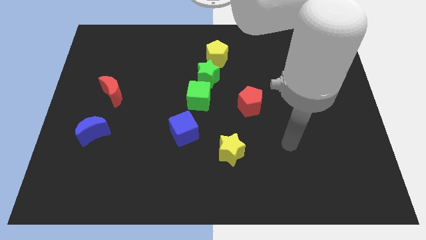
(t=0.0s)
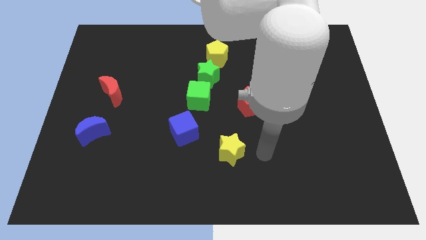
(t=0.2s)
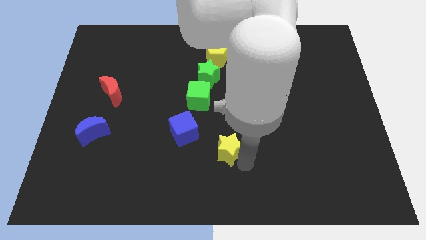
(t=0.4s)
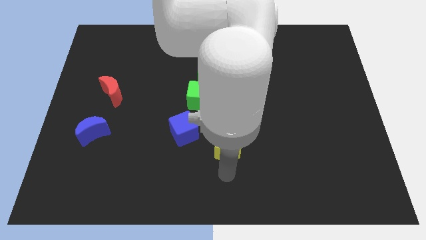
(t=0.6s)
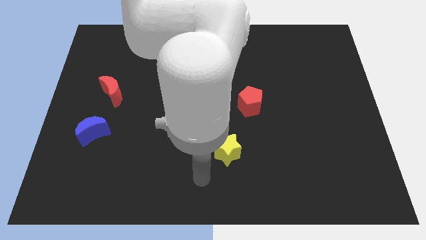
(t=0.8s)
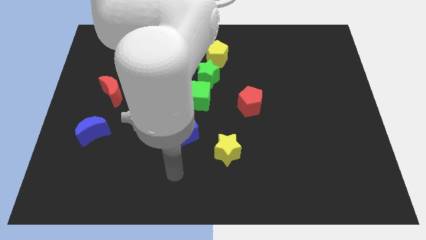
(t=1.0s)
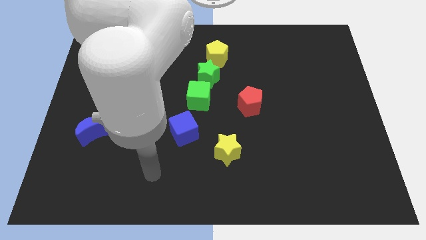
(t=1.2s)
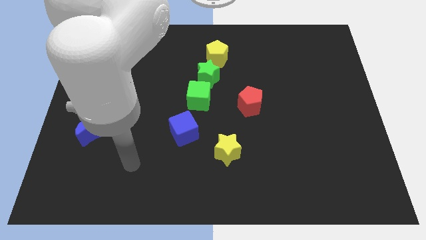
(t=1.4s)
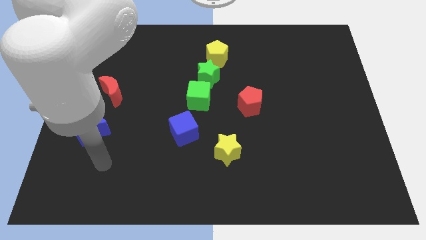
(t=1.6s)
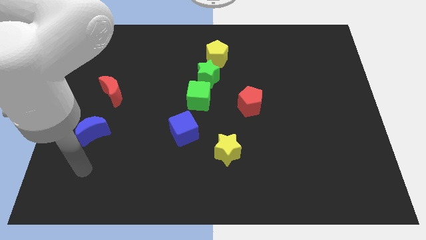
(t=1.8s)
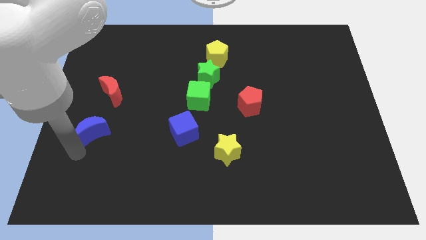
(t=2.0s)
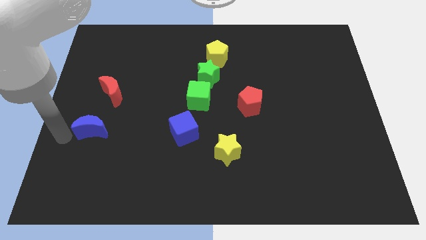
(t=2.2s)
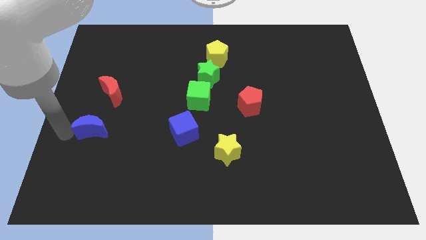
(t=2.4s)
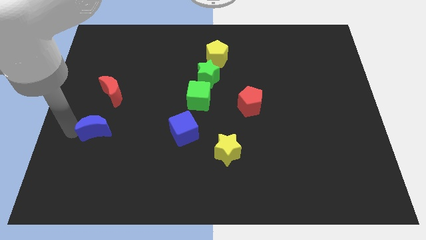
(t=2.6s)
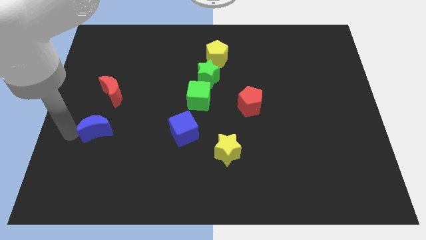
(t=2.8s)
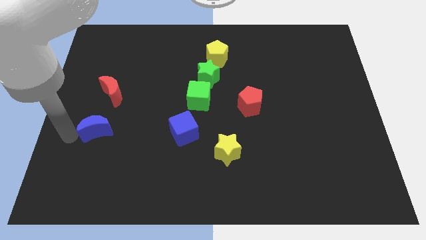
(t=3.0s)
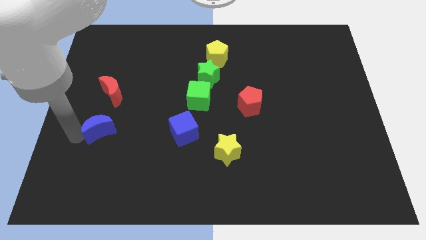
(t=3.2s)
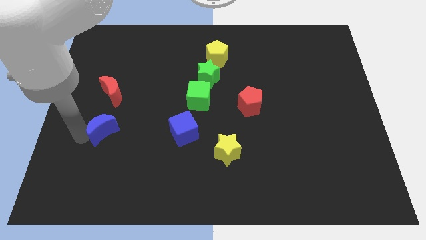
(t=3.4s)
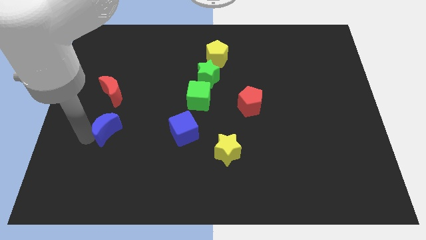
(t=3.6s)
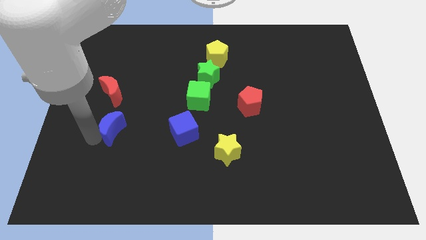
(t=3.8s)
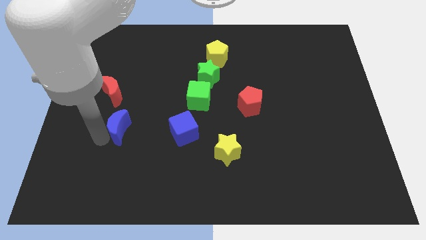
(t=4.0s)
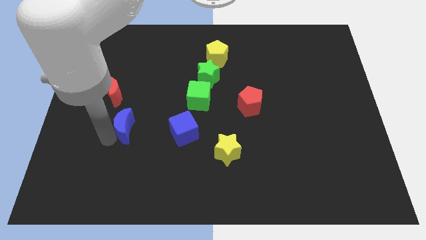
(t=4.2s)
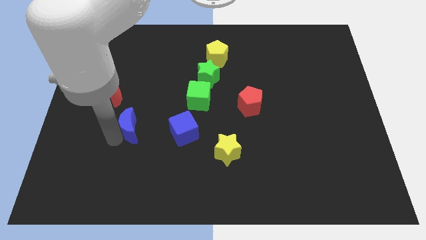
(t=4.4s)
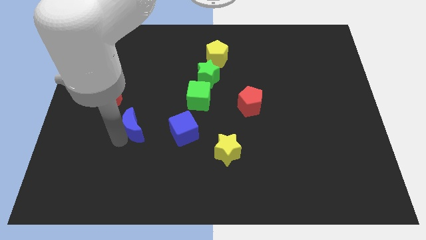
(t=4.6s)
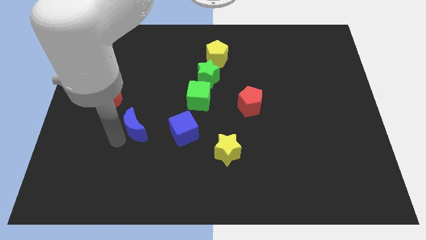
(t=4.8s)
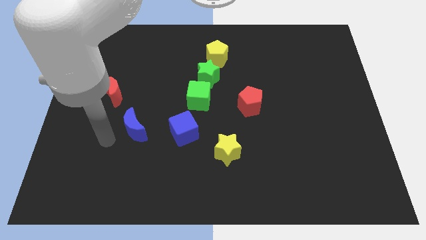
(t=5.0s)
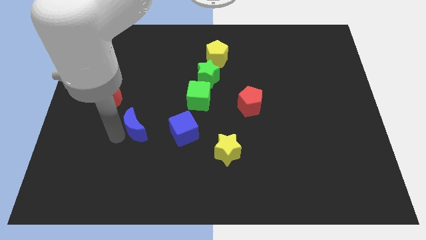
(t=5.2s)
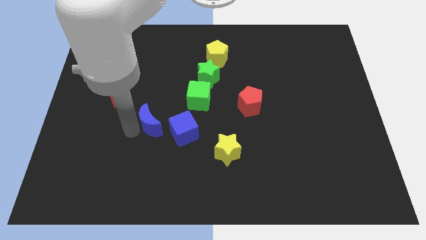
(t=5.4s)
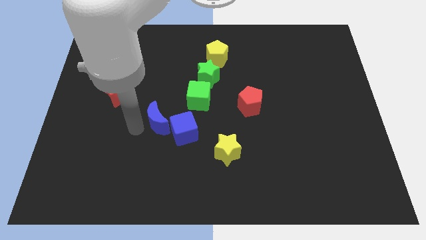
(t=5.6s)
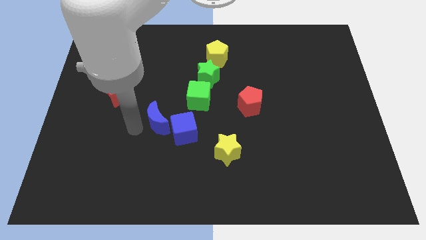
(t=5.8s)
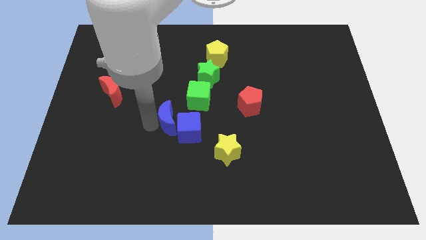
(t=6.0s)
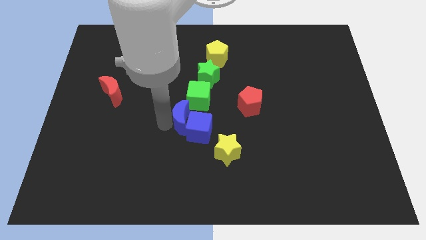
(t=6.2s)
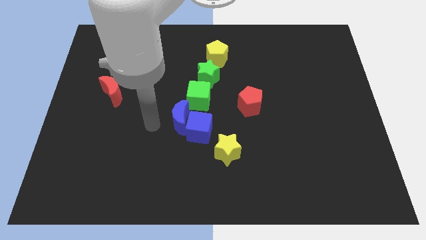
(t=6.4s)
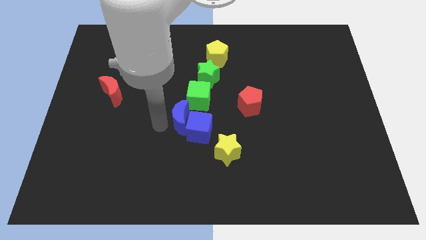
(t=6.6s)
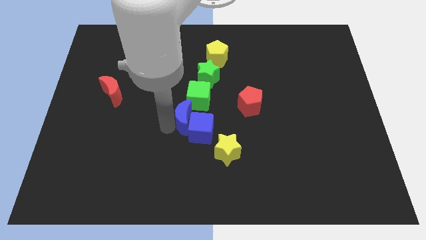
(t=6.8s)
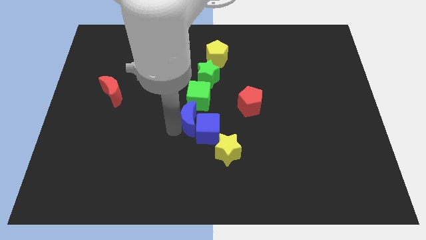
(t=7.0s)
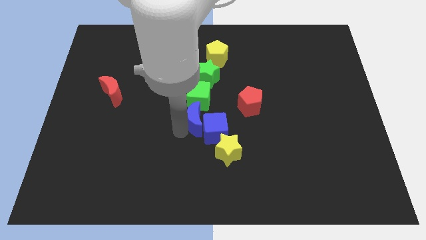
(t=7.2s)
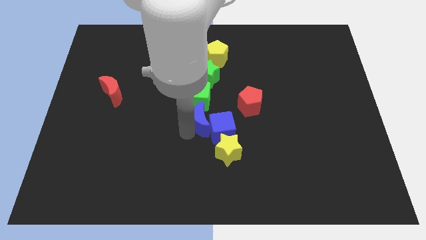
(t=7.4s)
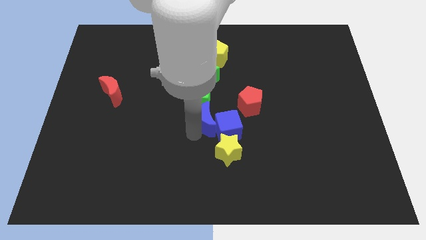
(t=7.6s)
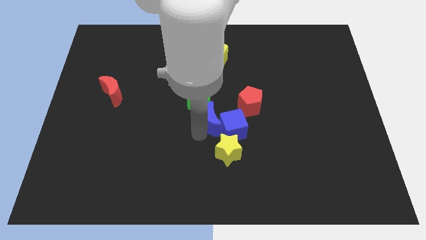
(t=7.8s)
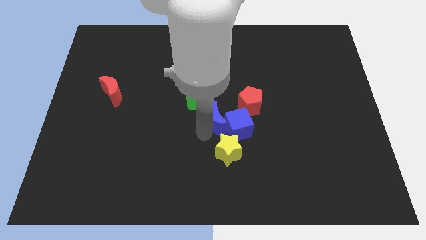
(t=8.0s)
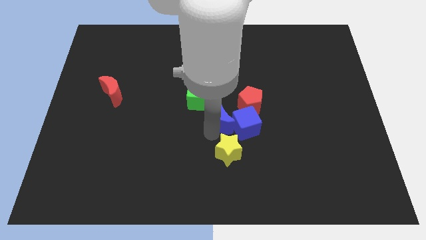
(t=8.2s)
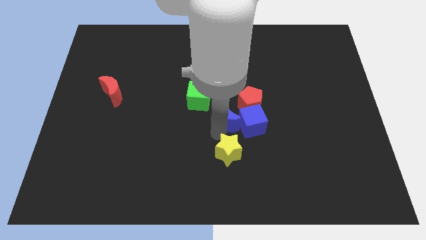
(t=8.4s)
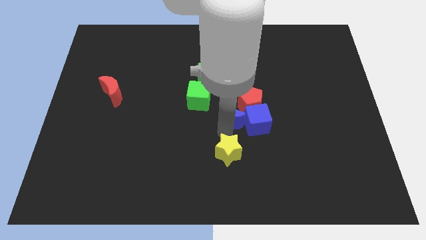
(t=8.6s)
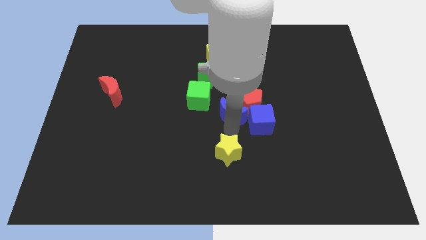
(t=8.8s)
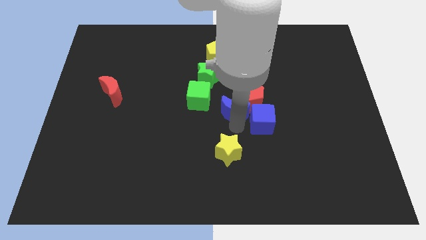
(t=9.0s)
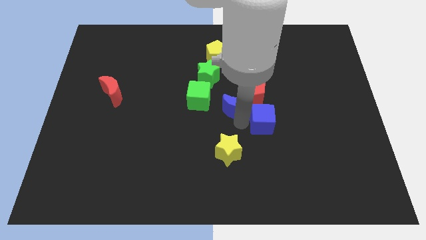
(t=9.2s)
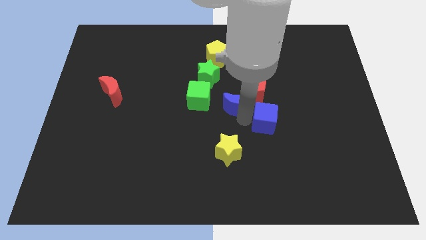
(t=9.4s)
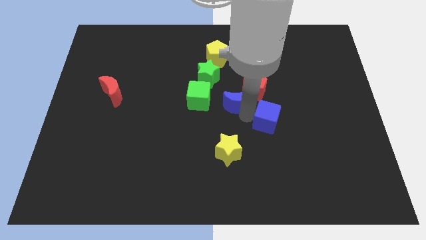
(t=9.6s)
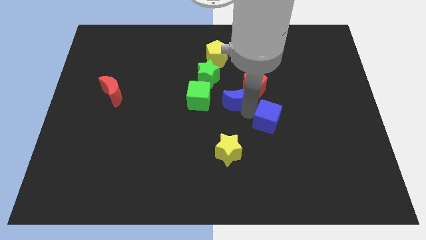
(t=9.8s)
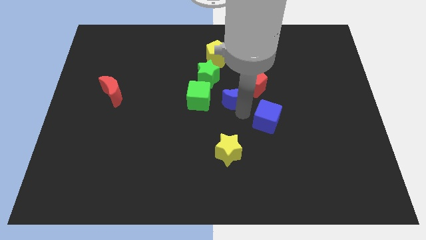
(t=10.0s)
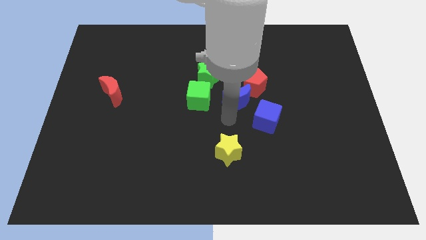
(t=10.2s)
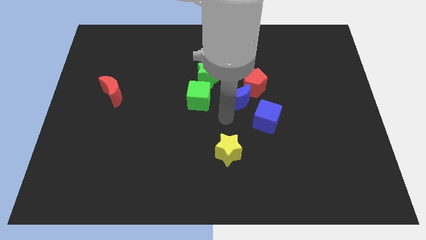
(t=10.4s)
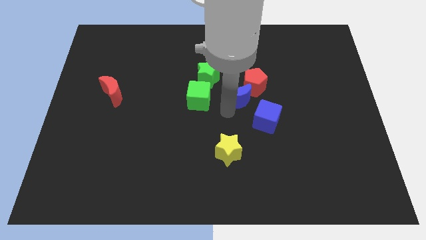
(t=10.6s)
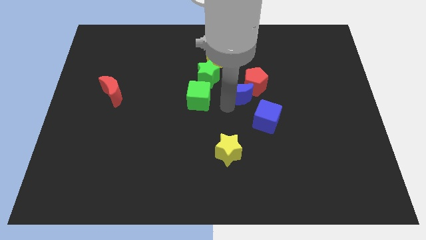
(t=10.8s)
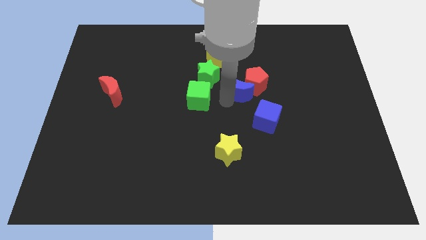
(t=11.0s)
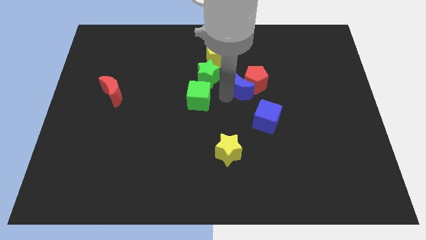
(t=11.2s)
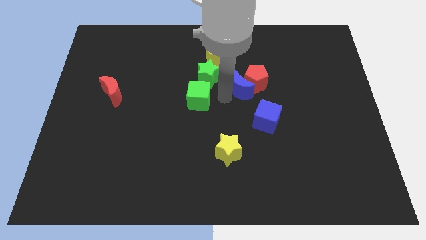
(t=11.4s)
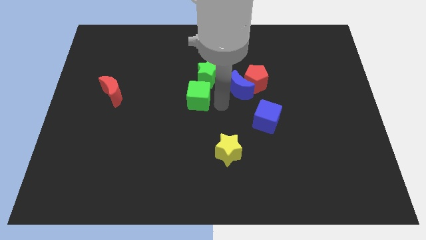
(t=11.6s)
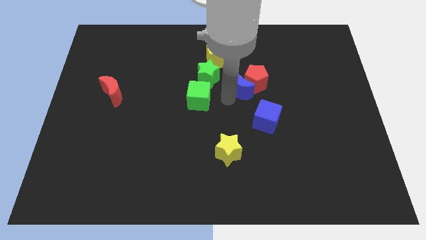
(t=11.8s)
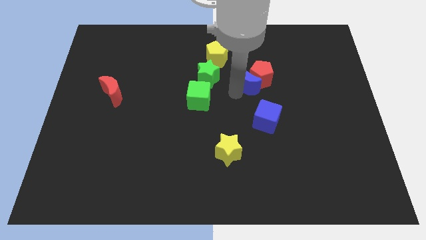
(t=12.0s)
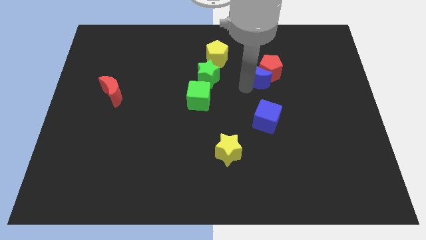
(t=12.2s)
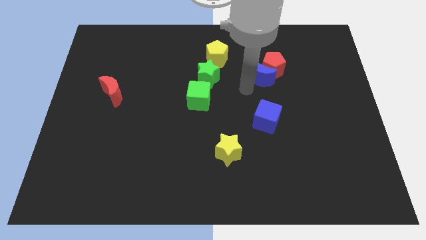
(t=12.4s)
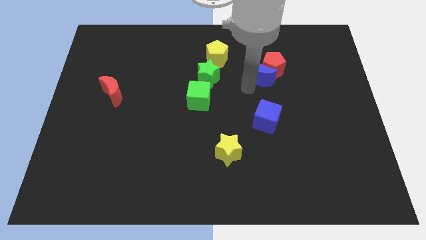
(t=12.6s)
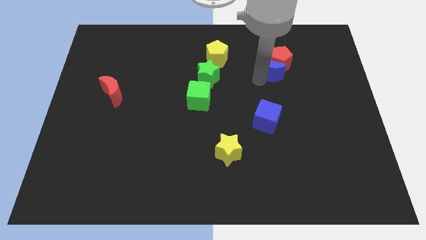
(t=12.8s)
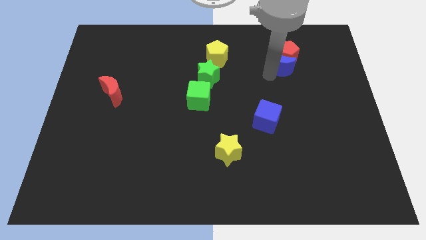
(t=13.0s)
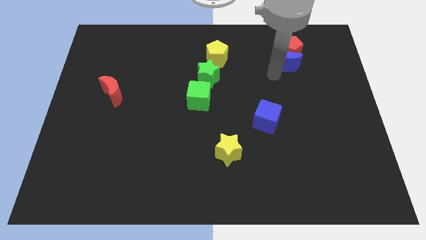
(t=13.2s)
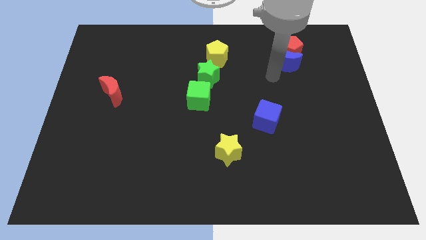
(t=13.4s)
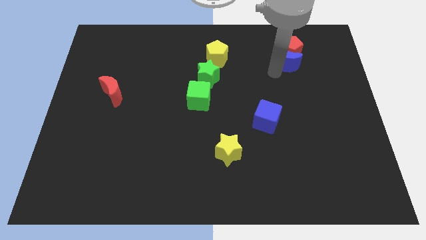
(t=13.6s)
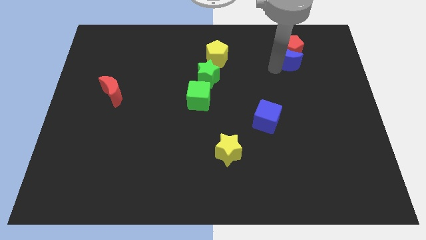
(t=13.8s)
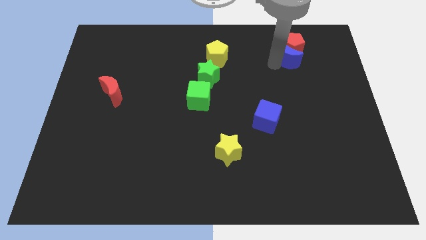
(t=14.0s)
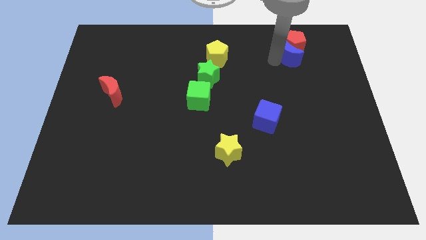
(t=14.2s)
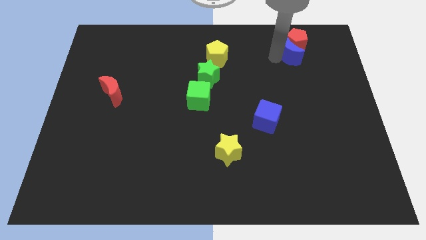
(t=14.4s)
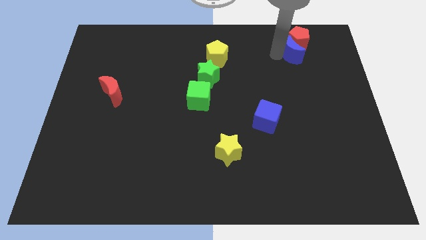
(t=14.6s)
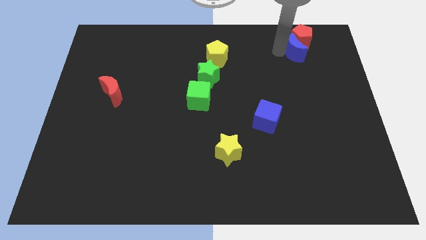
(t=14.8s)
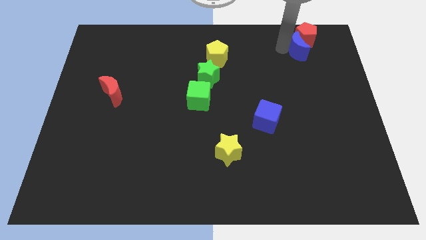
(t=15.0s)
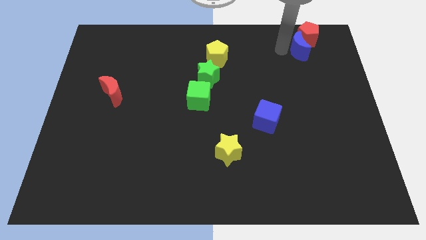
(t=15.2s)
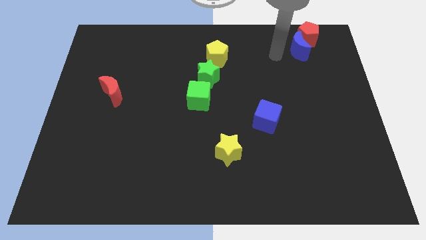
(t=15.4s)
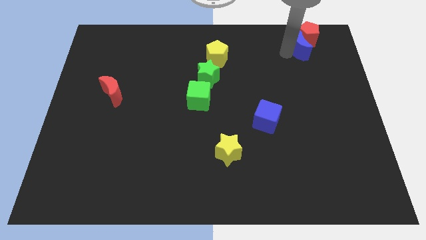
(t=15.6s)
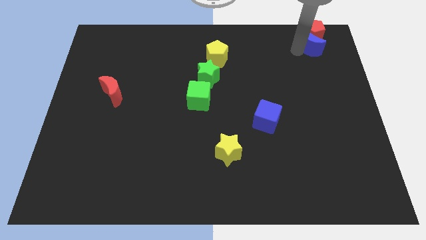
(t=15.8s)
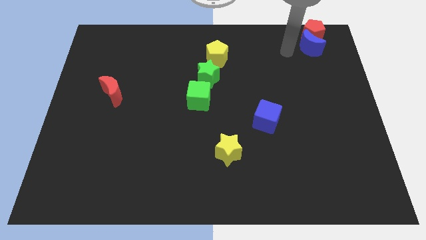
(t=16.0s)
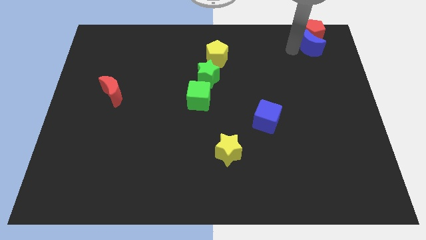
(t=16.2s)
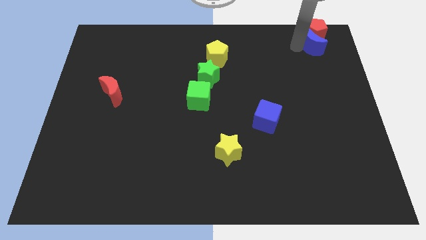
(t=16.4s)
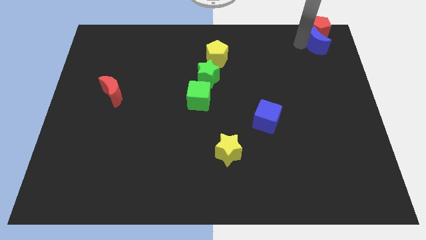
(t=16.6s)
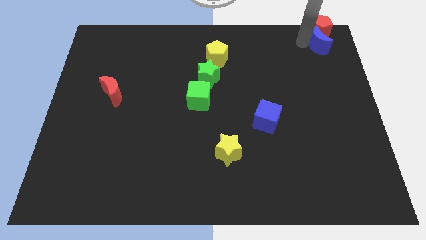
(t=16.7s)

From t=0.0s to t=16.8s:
move the blue moon to the top right
